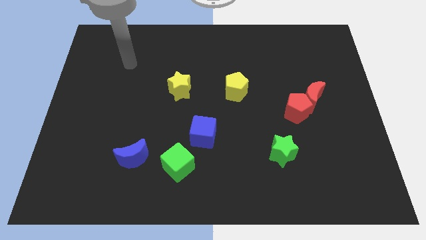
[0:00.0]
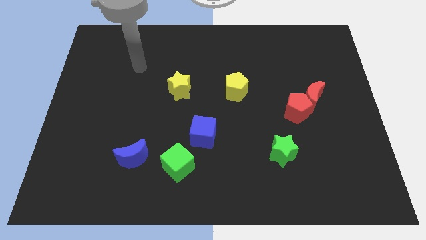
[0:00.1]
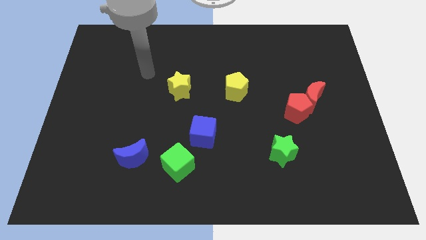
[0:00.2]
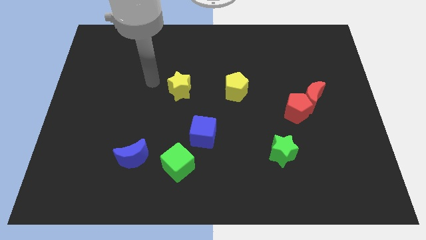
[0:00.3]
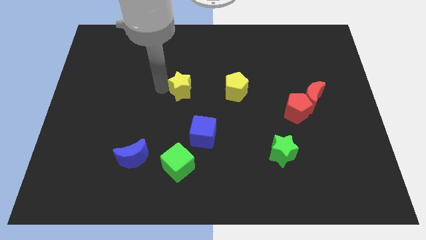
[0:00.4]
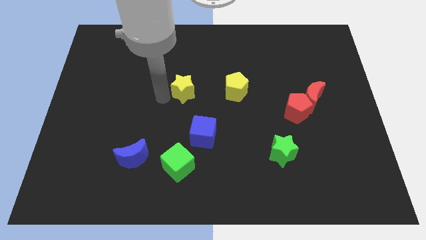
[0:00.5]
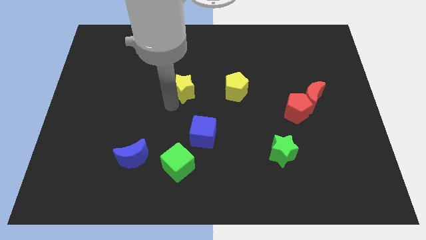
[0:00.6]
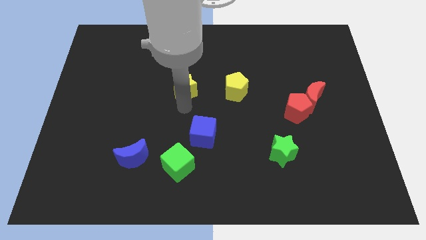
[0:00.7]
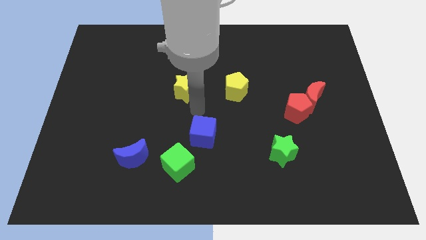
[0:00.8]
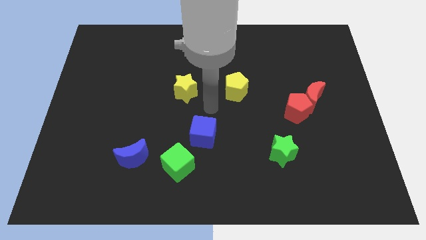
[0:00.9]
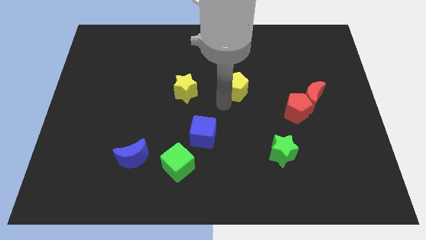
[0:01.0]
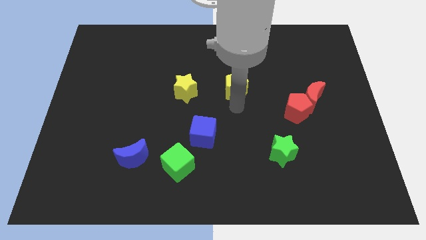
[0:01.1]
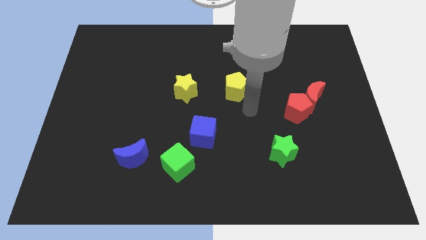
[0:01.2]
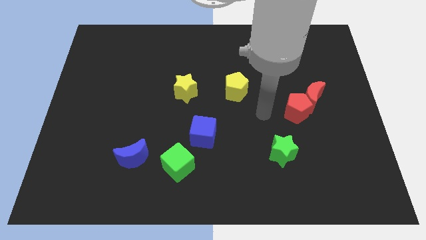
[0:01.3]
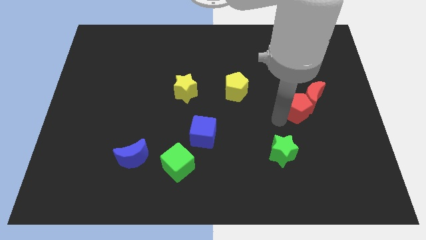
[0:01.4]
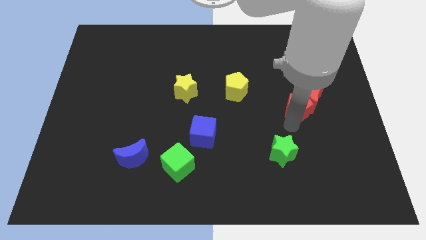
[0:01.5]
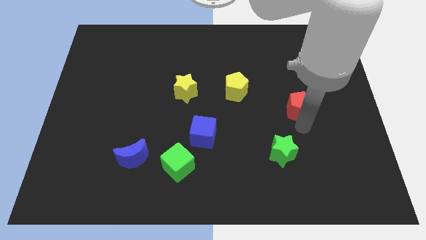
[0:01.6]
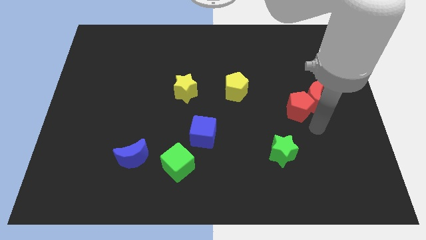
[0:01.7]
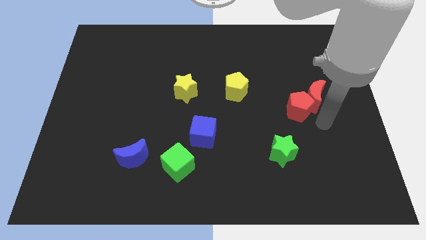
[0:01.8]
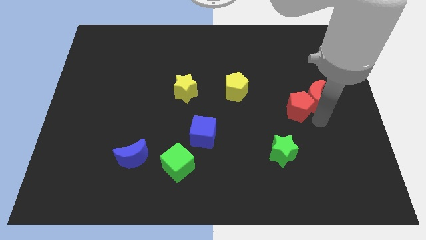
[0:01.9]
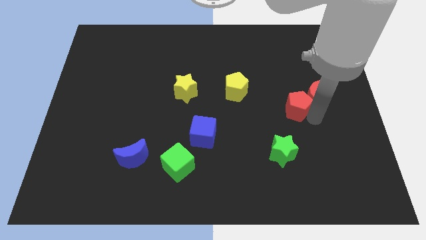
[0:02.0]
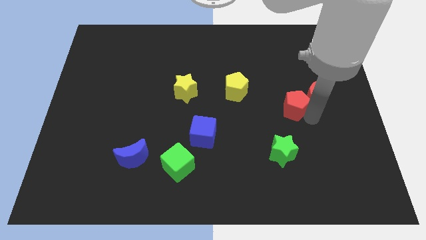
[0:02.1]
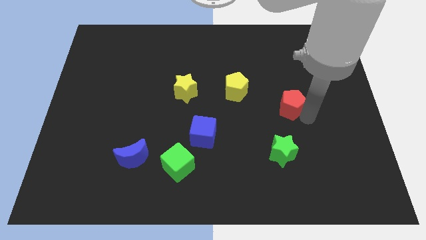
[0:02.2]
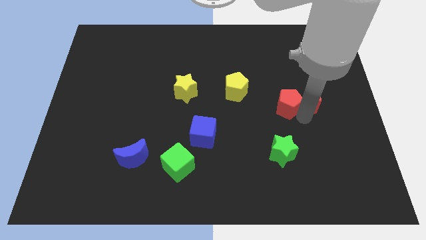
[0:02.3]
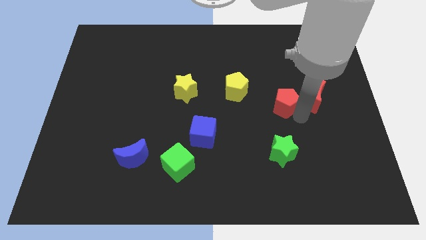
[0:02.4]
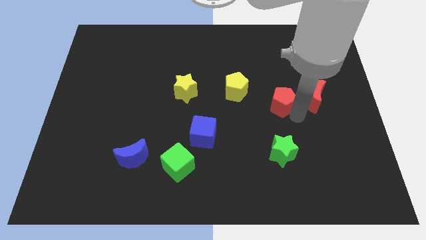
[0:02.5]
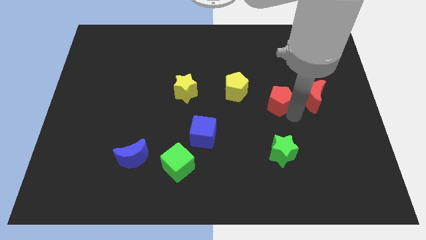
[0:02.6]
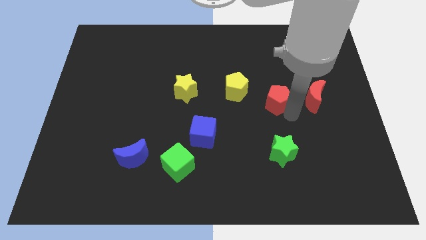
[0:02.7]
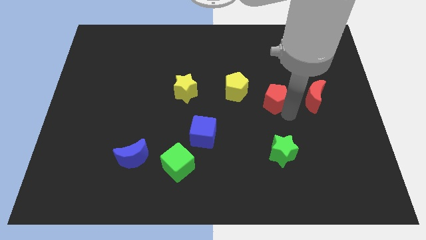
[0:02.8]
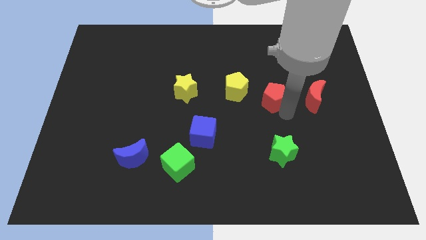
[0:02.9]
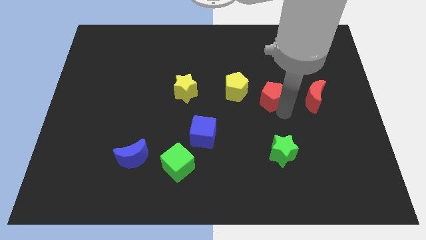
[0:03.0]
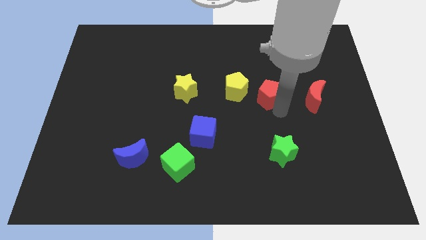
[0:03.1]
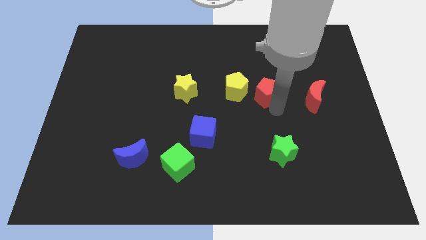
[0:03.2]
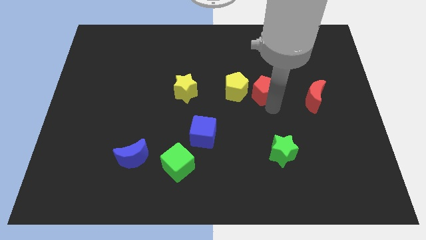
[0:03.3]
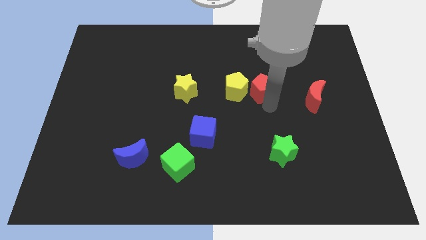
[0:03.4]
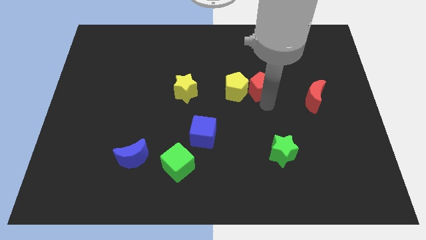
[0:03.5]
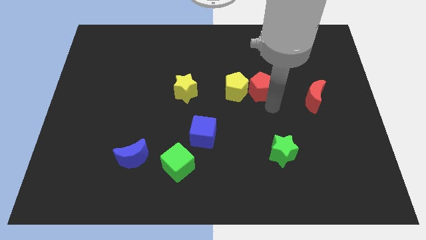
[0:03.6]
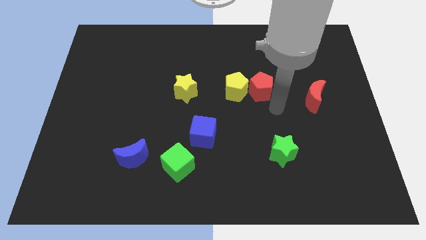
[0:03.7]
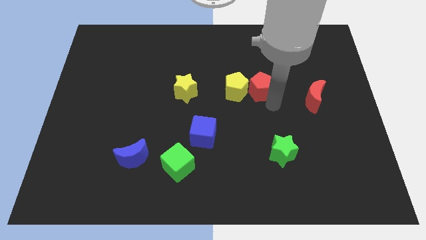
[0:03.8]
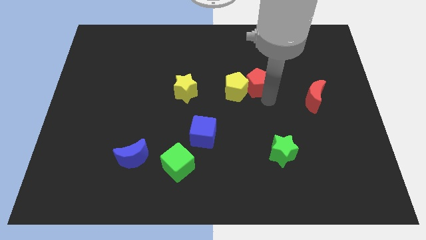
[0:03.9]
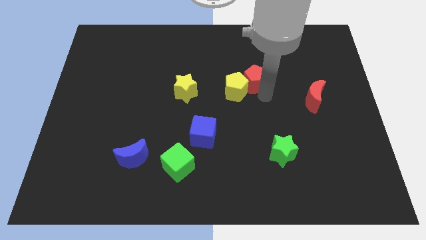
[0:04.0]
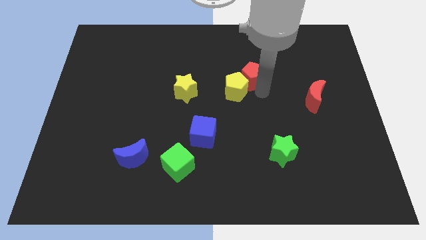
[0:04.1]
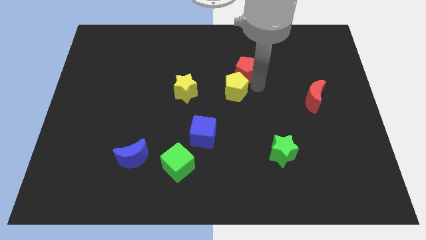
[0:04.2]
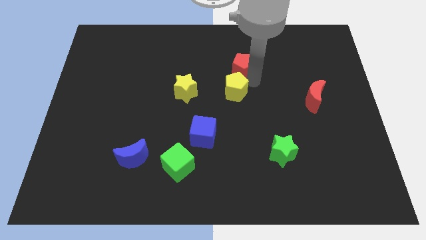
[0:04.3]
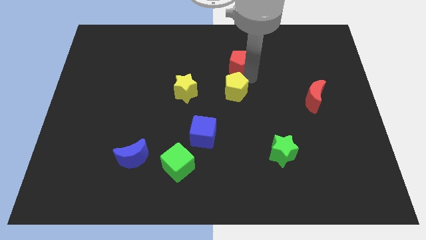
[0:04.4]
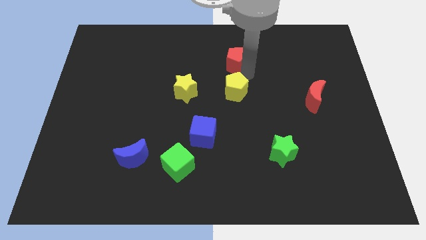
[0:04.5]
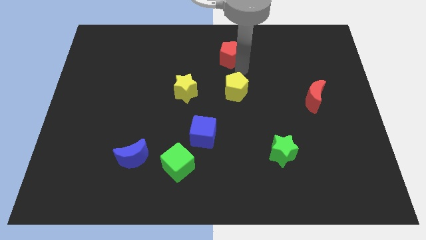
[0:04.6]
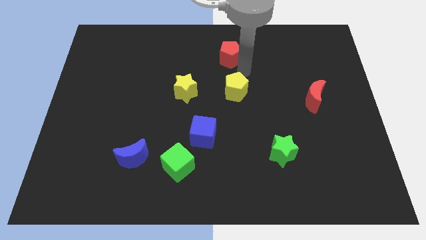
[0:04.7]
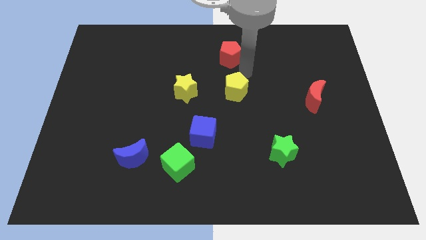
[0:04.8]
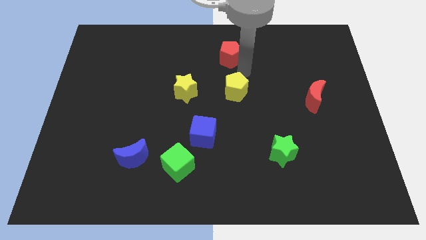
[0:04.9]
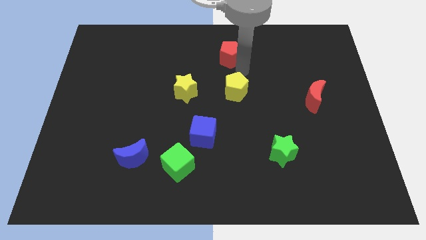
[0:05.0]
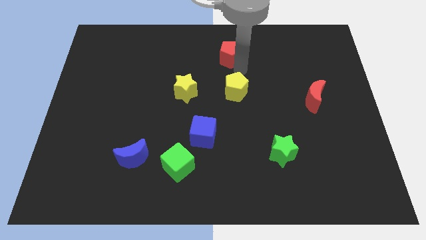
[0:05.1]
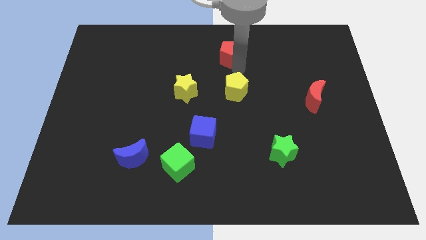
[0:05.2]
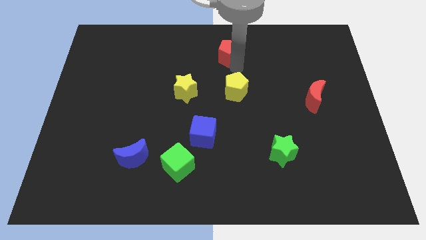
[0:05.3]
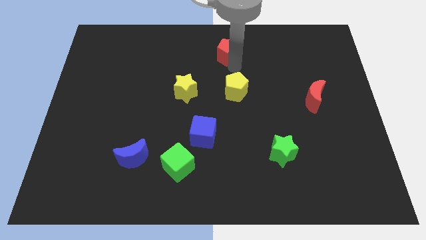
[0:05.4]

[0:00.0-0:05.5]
move the red pentagon to the top side

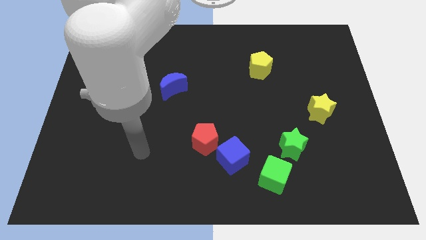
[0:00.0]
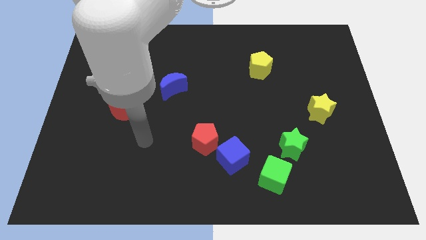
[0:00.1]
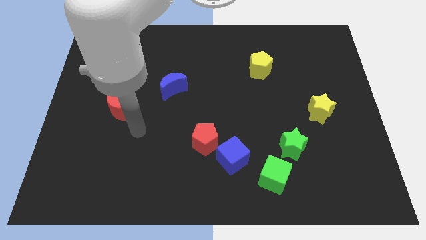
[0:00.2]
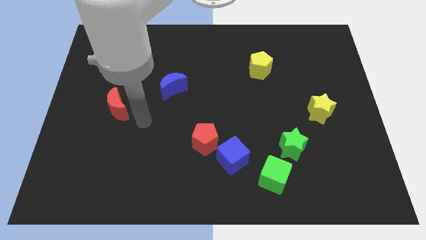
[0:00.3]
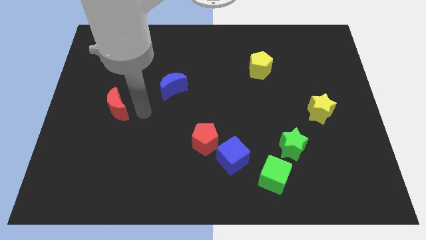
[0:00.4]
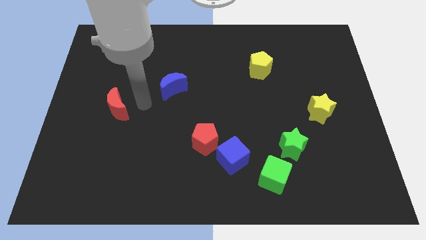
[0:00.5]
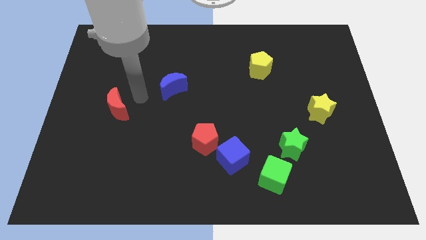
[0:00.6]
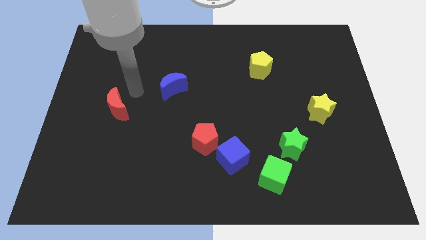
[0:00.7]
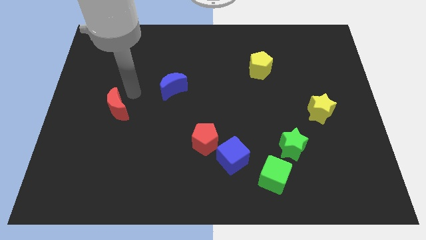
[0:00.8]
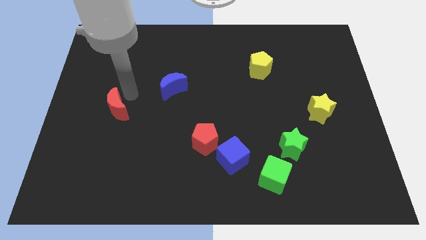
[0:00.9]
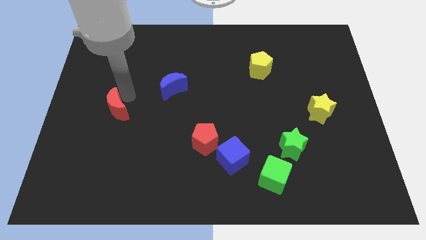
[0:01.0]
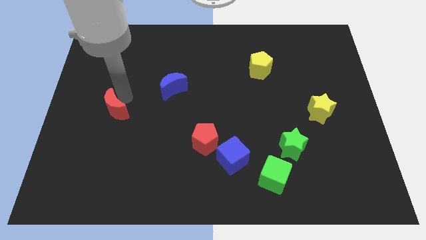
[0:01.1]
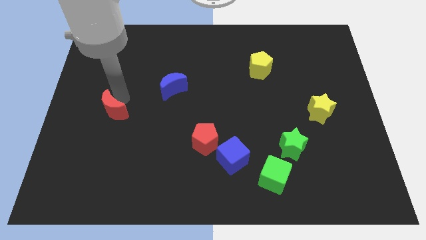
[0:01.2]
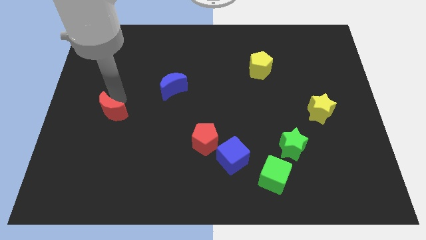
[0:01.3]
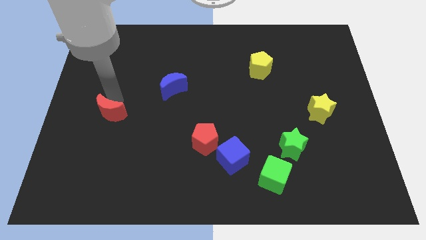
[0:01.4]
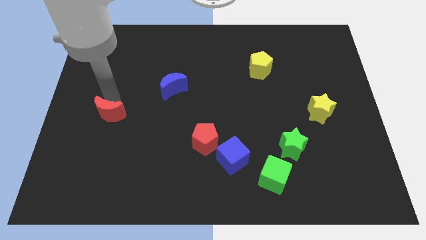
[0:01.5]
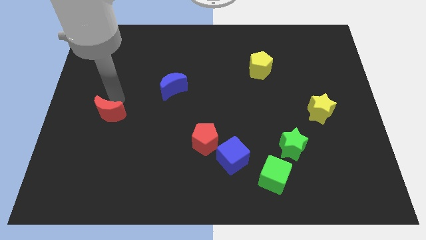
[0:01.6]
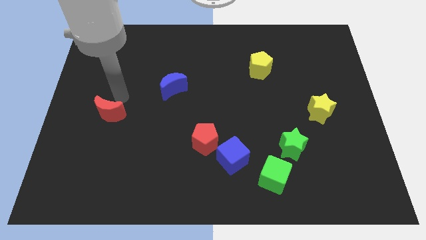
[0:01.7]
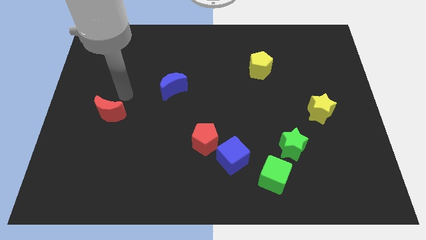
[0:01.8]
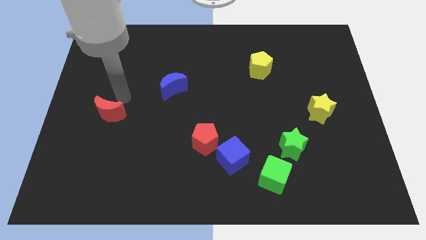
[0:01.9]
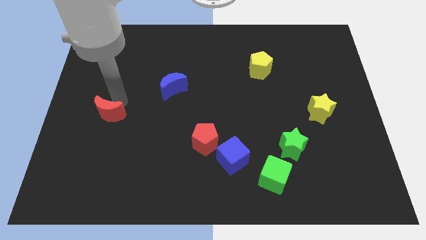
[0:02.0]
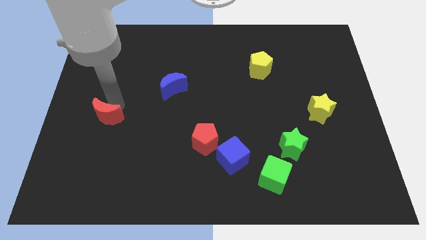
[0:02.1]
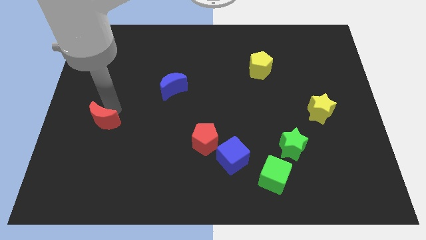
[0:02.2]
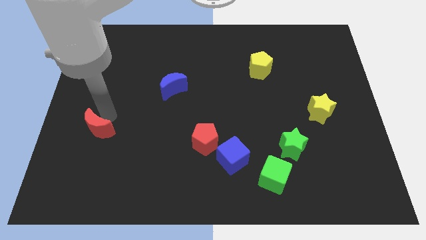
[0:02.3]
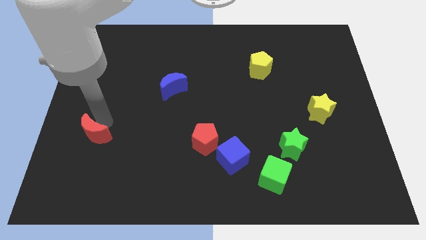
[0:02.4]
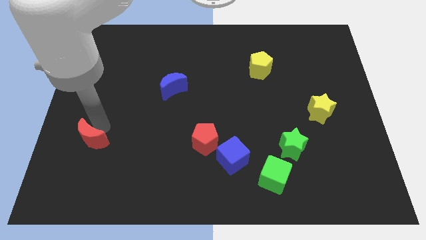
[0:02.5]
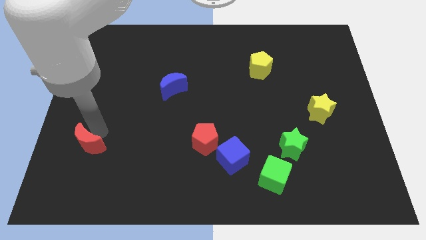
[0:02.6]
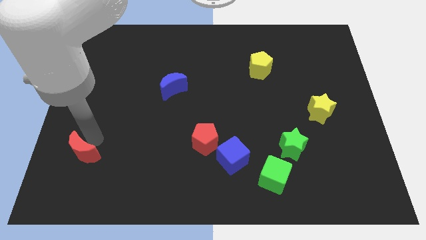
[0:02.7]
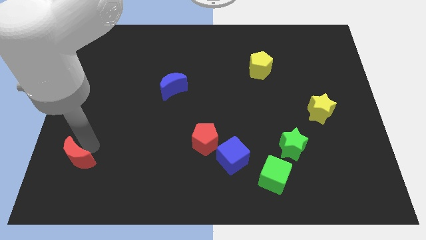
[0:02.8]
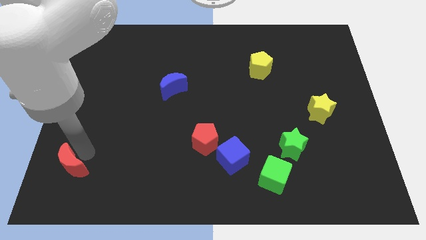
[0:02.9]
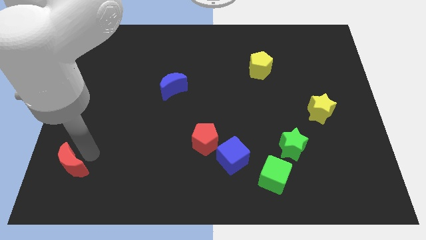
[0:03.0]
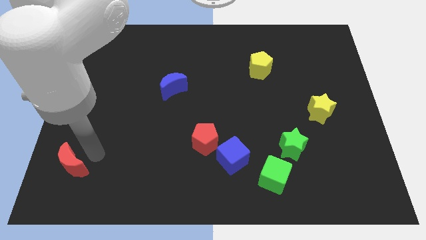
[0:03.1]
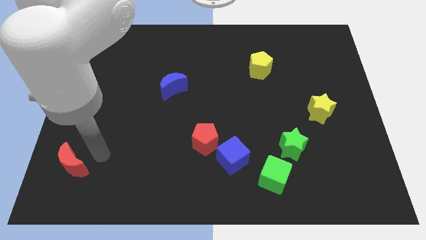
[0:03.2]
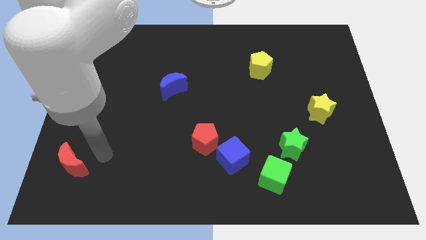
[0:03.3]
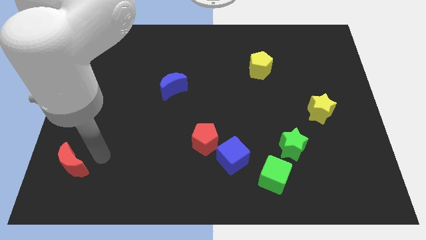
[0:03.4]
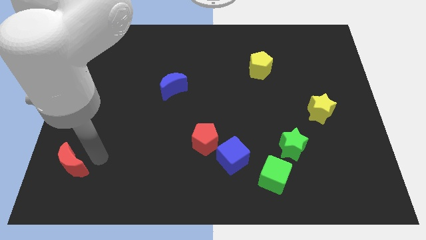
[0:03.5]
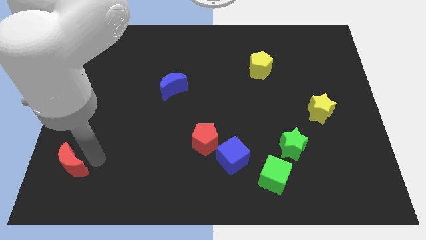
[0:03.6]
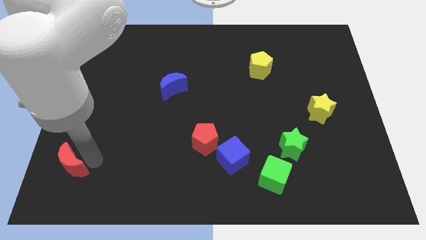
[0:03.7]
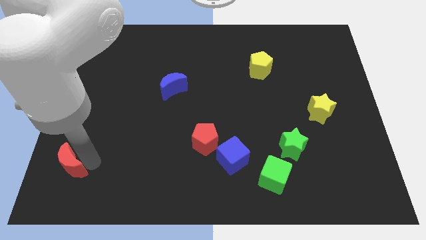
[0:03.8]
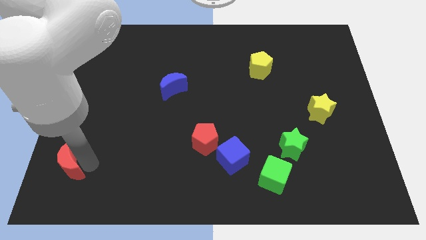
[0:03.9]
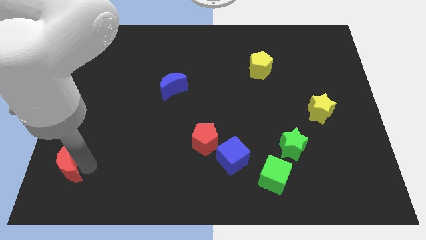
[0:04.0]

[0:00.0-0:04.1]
slide the red moon to the bottom left corner
